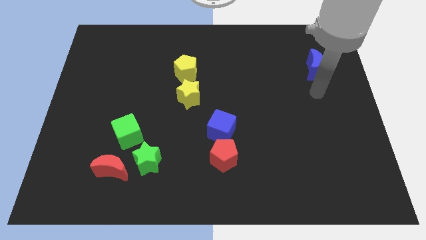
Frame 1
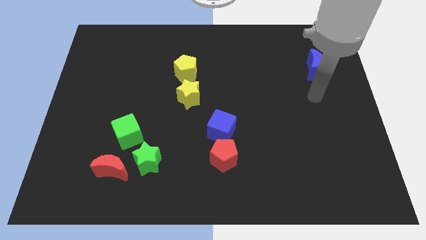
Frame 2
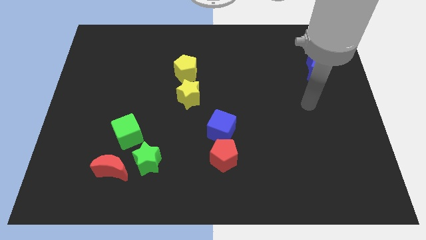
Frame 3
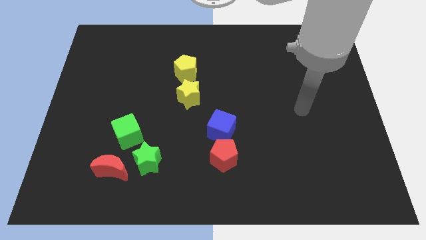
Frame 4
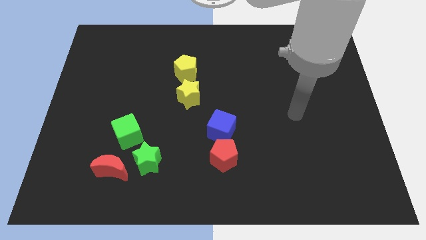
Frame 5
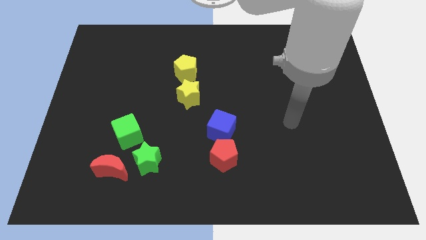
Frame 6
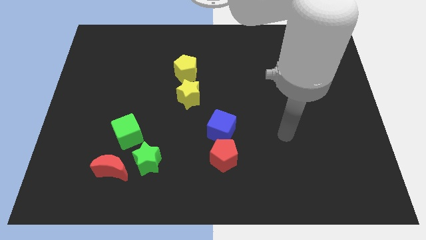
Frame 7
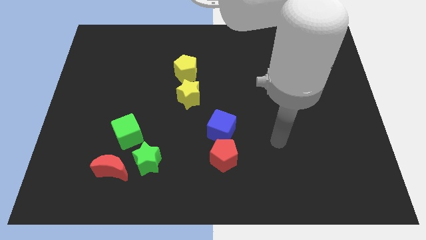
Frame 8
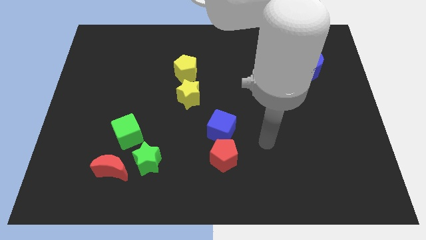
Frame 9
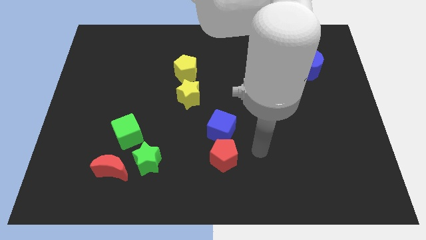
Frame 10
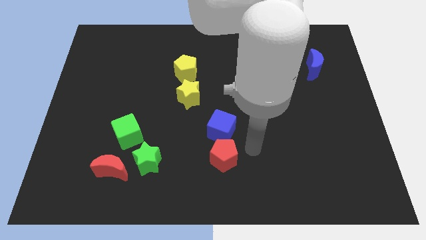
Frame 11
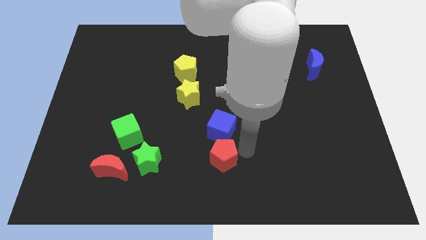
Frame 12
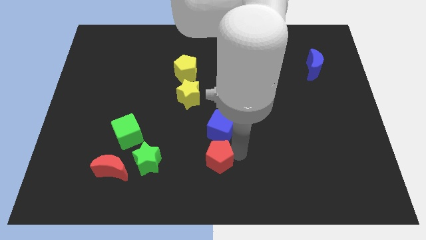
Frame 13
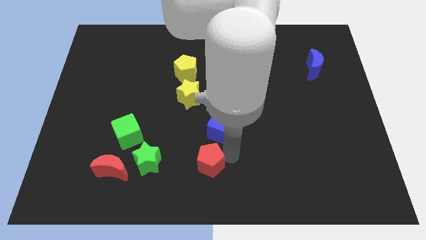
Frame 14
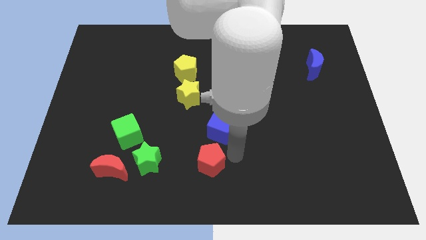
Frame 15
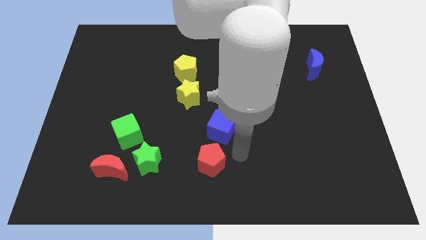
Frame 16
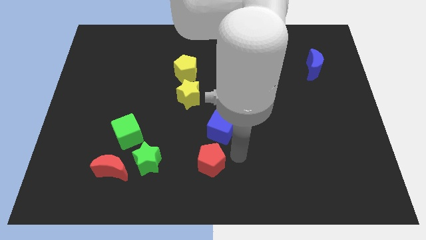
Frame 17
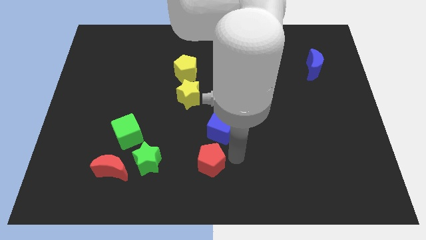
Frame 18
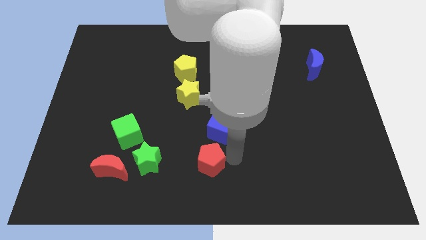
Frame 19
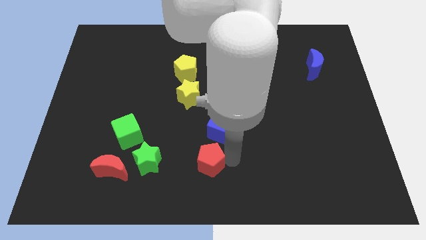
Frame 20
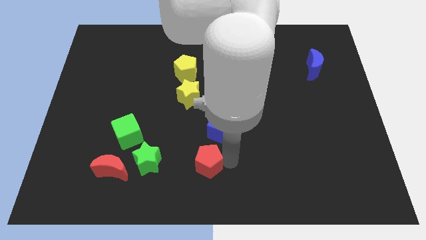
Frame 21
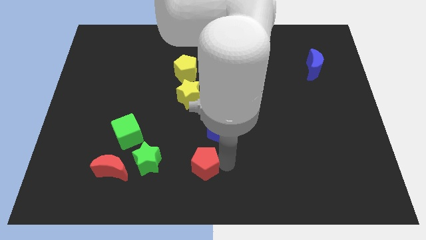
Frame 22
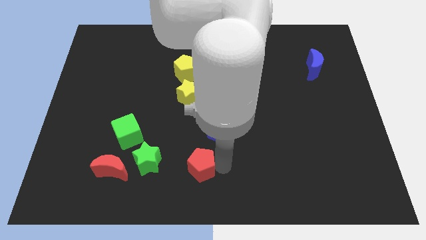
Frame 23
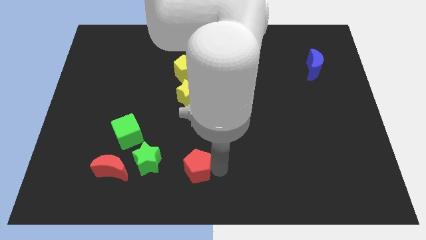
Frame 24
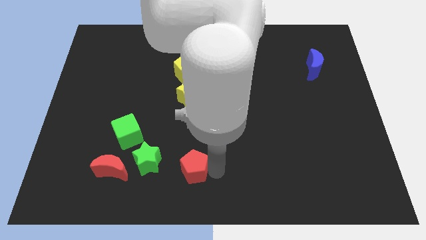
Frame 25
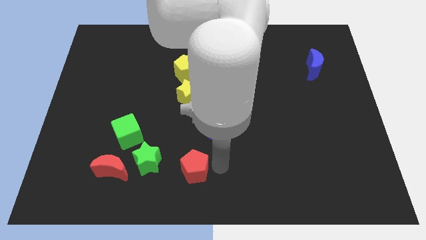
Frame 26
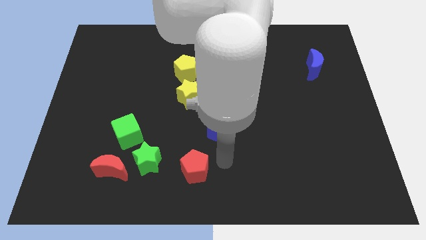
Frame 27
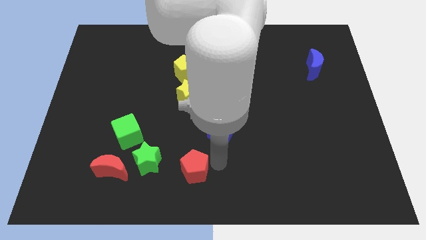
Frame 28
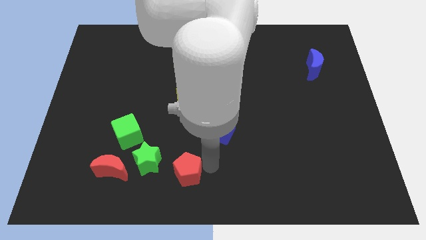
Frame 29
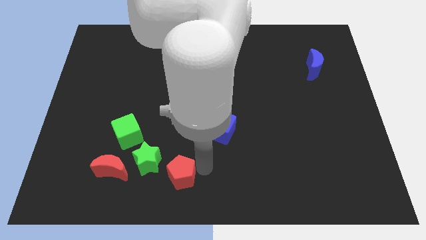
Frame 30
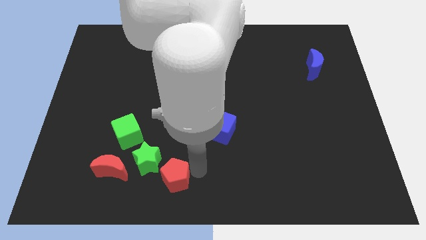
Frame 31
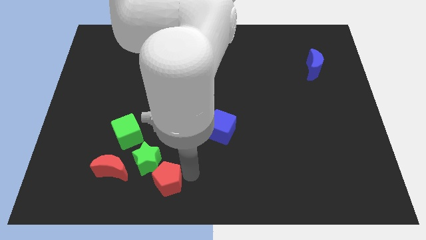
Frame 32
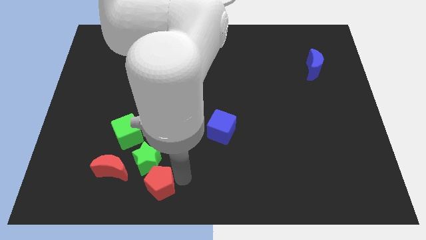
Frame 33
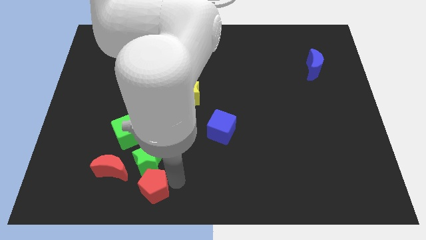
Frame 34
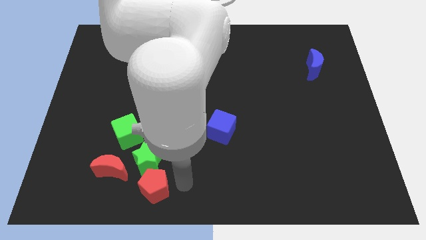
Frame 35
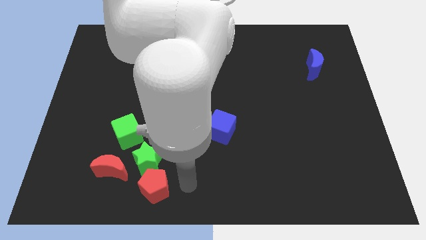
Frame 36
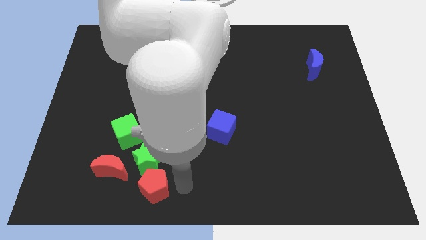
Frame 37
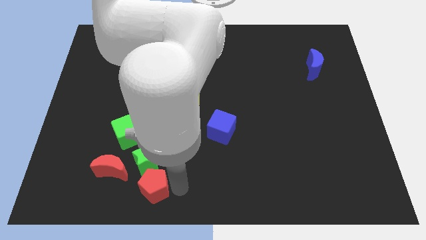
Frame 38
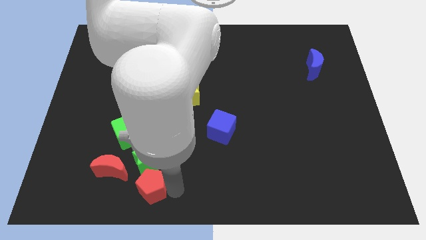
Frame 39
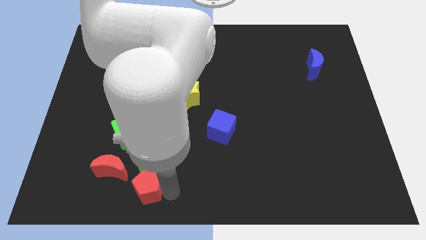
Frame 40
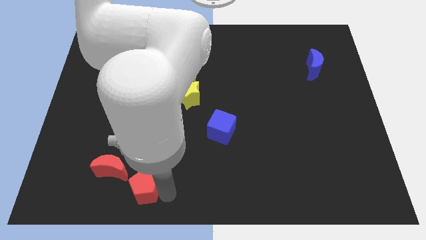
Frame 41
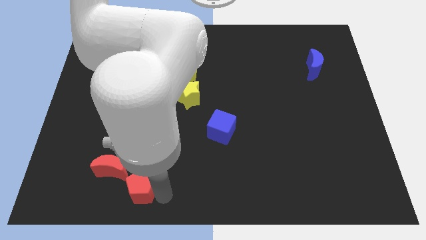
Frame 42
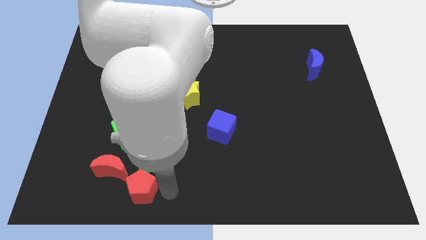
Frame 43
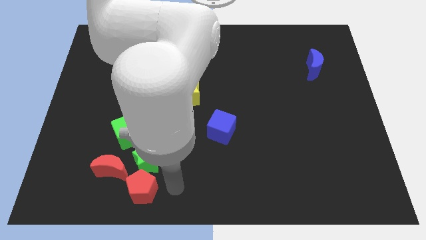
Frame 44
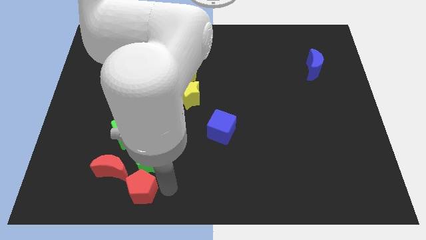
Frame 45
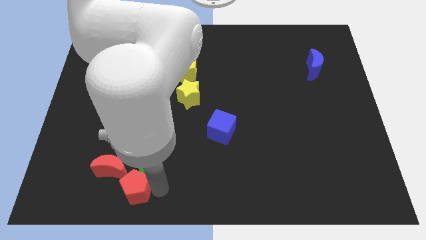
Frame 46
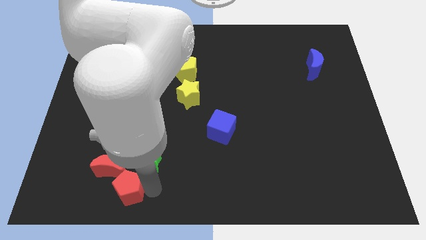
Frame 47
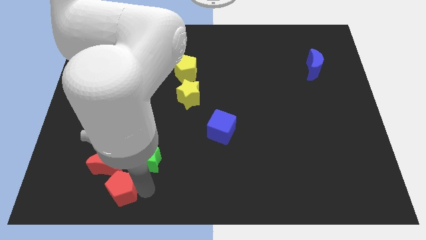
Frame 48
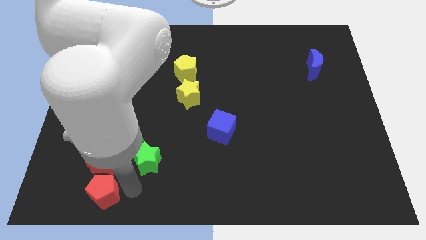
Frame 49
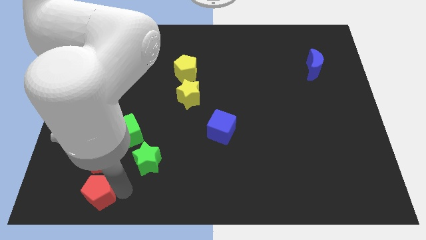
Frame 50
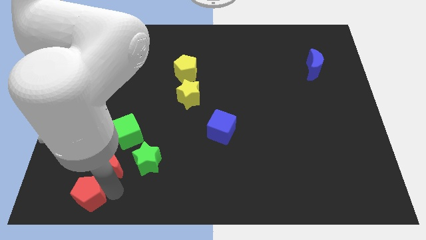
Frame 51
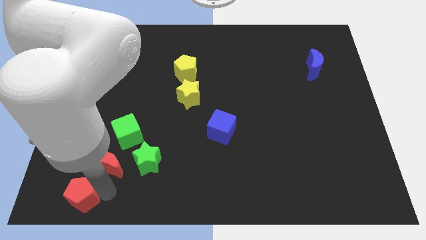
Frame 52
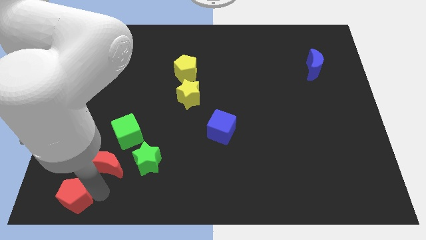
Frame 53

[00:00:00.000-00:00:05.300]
put the red pentagon to the bottom left of the board

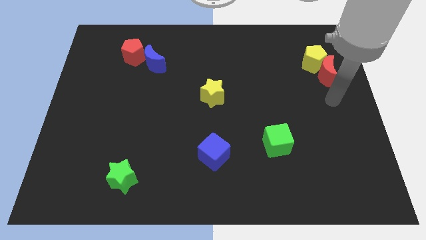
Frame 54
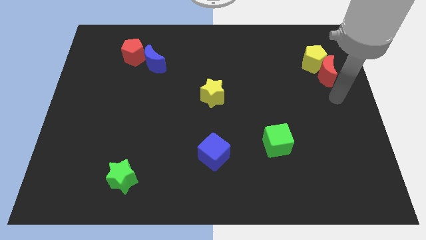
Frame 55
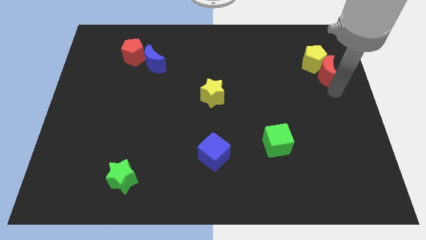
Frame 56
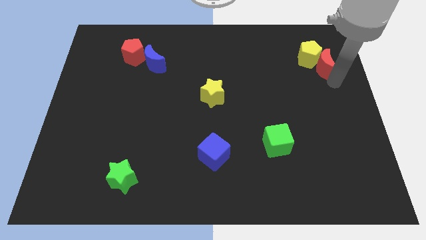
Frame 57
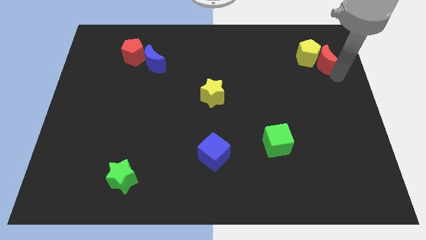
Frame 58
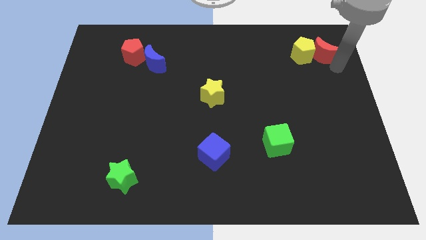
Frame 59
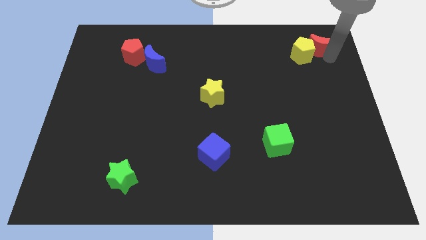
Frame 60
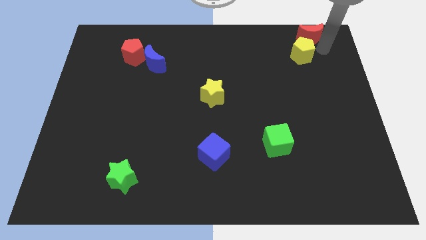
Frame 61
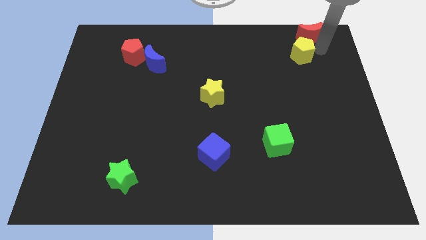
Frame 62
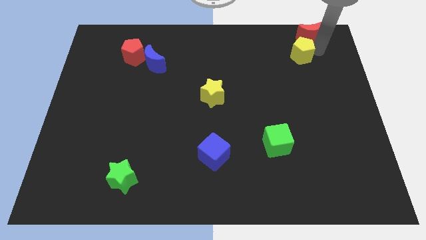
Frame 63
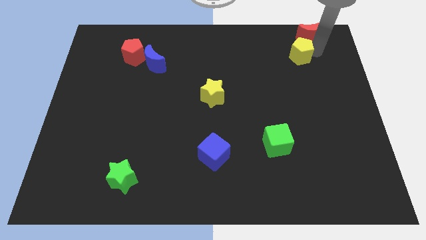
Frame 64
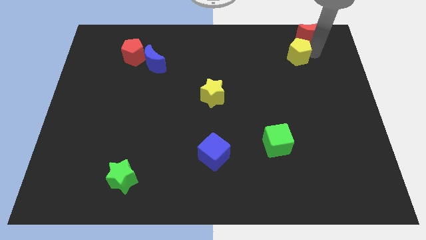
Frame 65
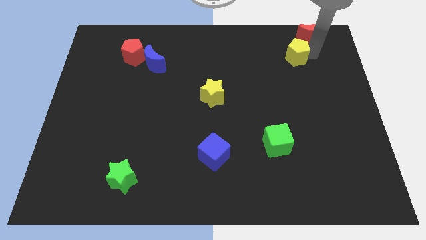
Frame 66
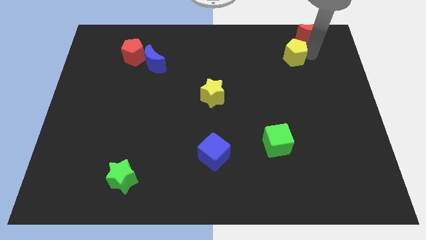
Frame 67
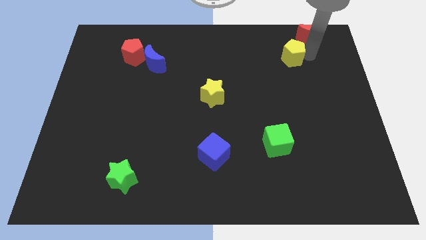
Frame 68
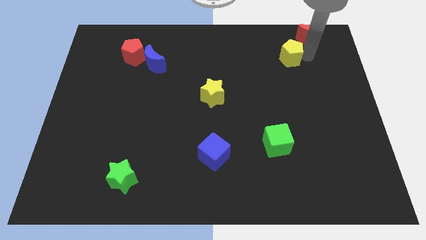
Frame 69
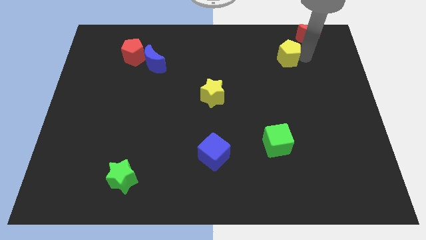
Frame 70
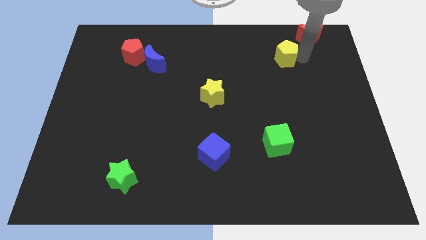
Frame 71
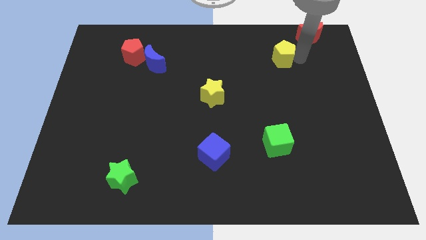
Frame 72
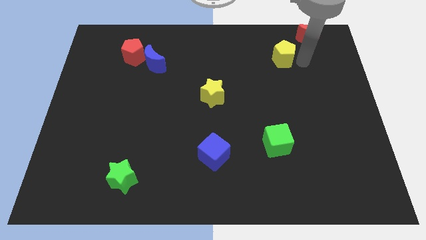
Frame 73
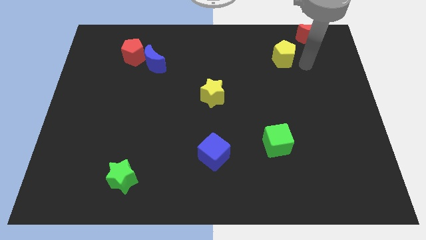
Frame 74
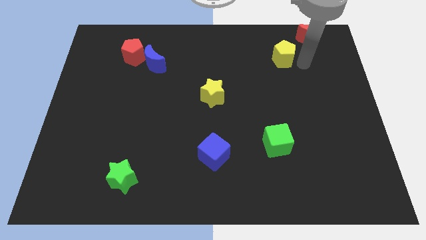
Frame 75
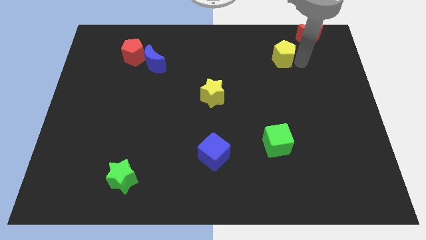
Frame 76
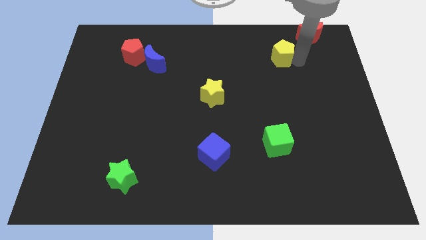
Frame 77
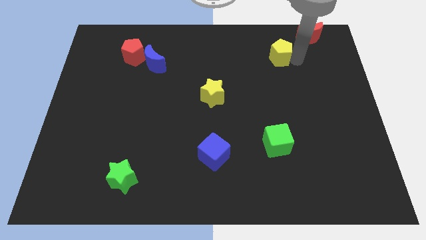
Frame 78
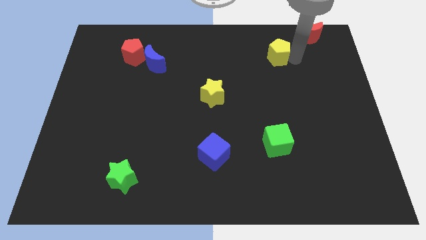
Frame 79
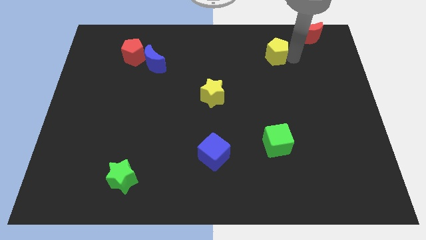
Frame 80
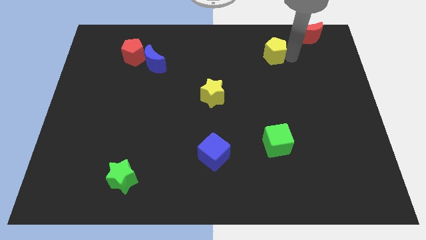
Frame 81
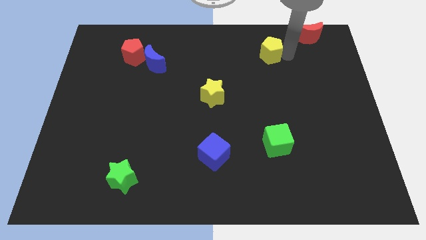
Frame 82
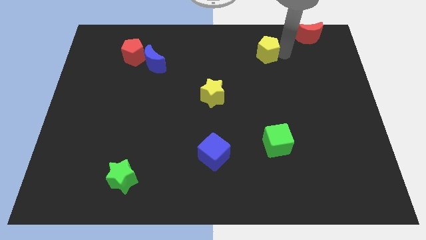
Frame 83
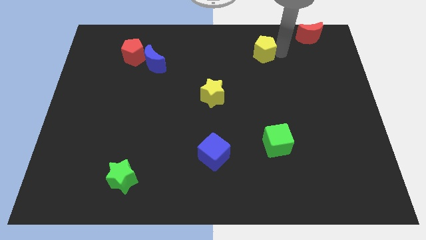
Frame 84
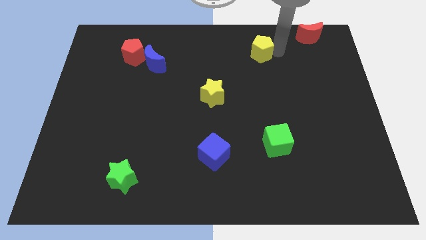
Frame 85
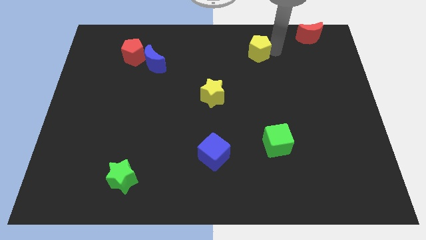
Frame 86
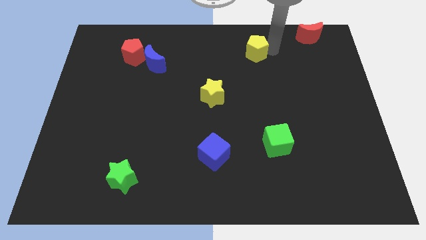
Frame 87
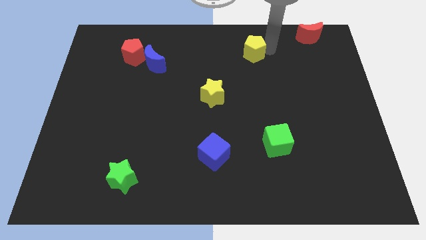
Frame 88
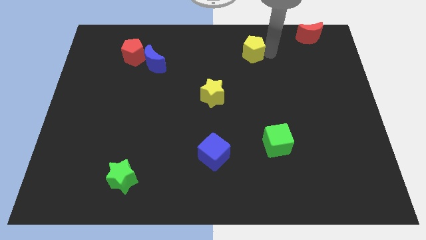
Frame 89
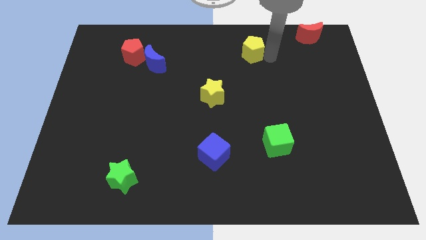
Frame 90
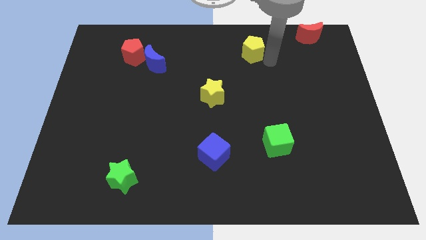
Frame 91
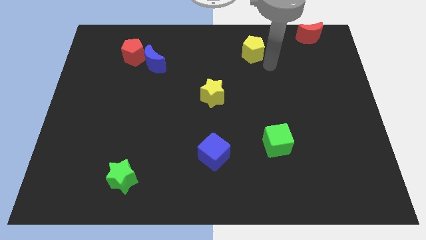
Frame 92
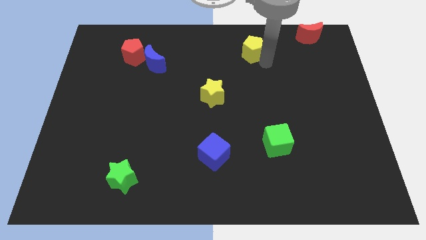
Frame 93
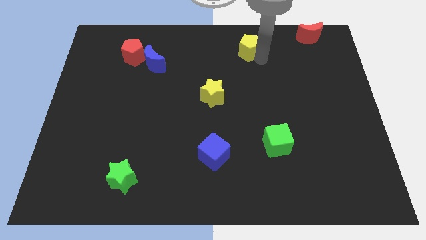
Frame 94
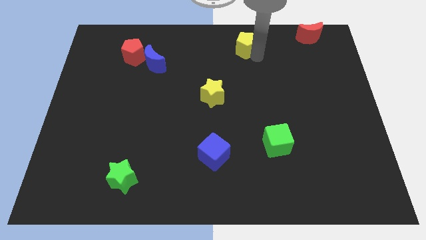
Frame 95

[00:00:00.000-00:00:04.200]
move the yellow pentagon to the towards your base
